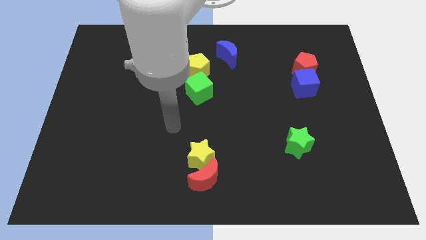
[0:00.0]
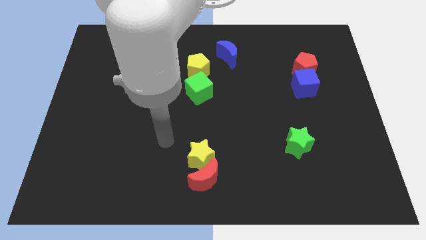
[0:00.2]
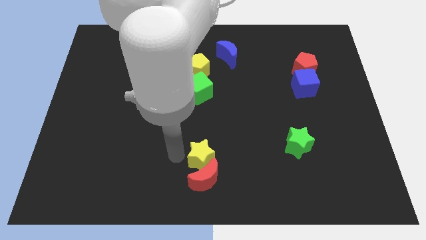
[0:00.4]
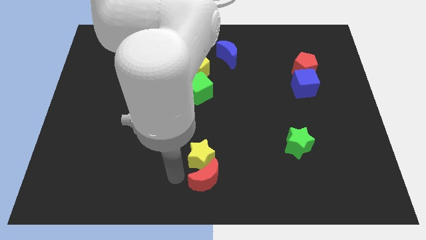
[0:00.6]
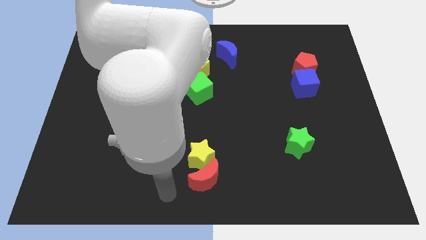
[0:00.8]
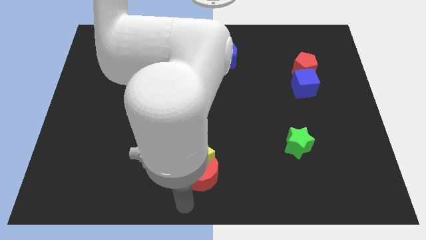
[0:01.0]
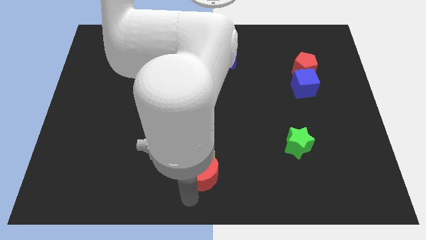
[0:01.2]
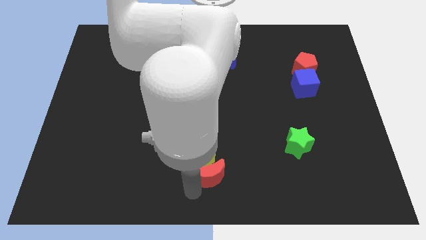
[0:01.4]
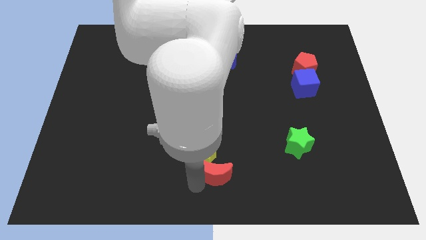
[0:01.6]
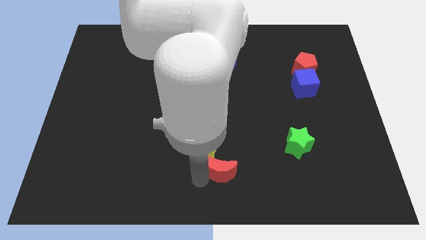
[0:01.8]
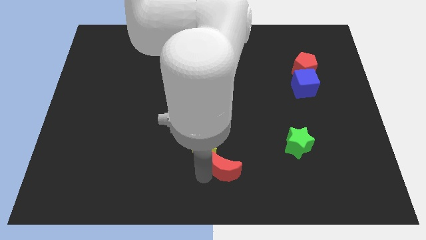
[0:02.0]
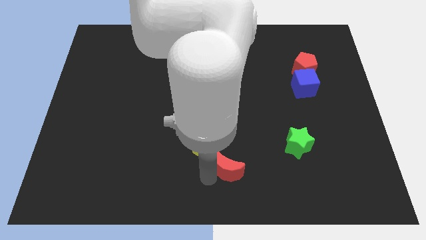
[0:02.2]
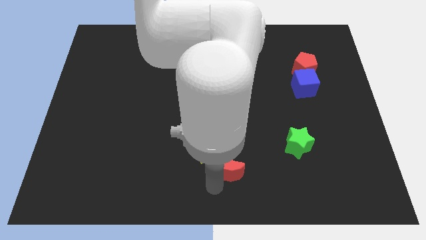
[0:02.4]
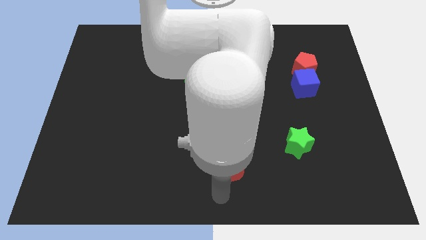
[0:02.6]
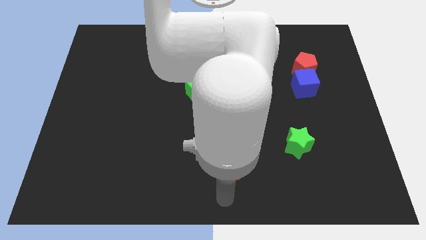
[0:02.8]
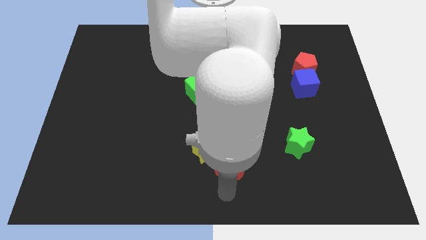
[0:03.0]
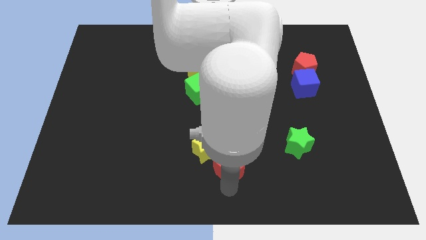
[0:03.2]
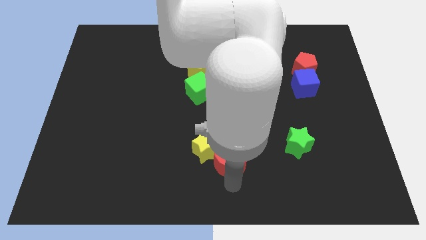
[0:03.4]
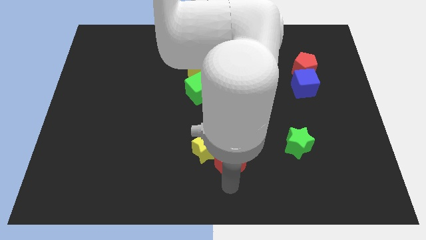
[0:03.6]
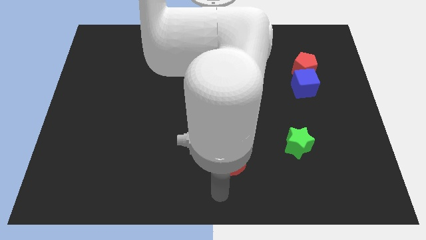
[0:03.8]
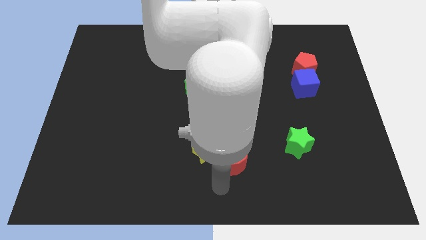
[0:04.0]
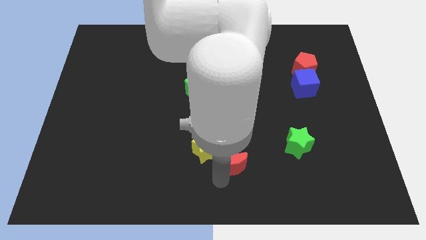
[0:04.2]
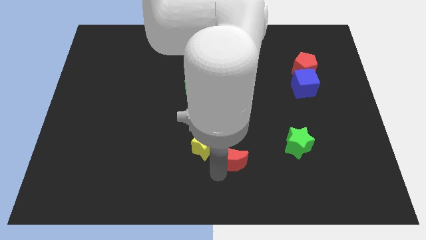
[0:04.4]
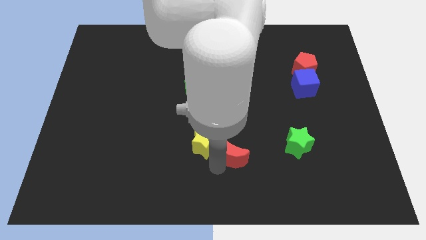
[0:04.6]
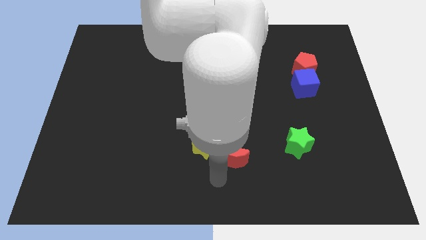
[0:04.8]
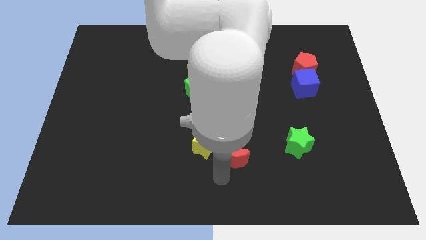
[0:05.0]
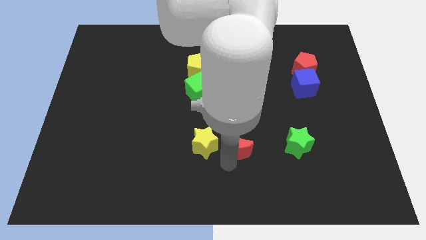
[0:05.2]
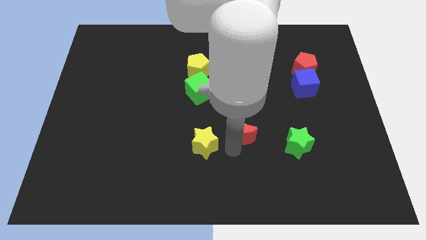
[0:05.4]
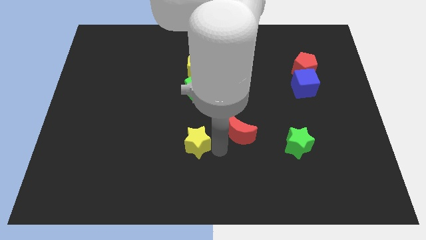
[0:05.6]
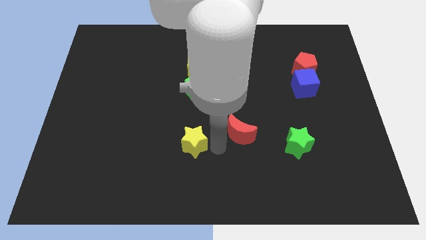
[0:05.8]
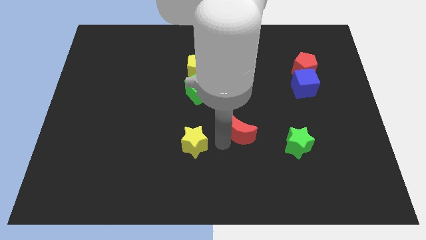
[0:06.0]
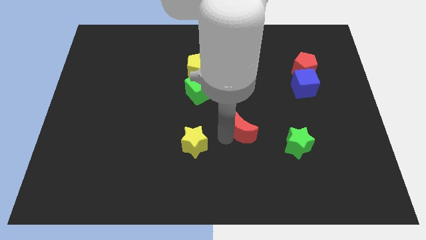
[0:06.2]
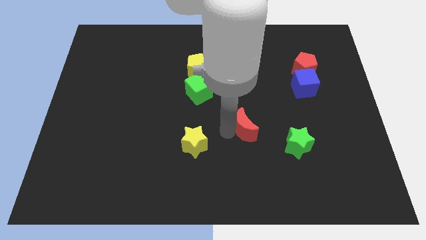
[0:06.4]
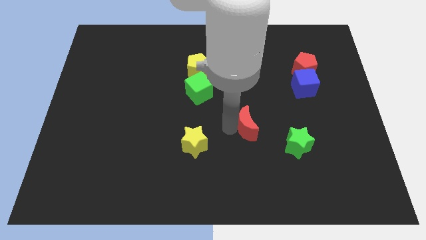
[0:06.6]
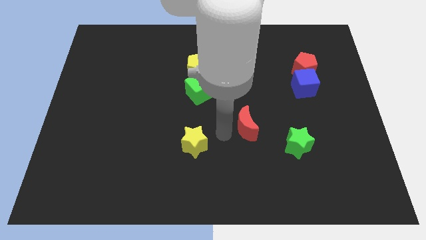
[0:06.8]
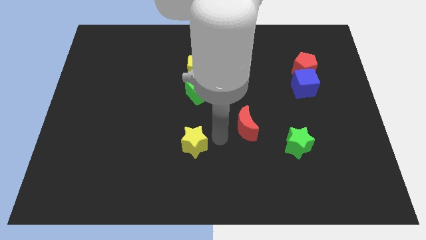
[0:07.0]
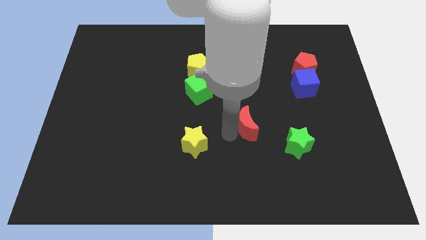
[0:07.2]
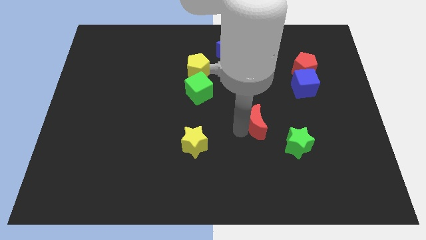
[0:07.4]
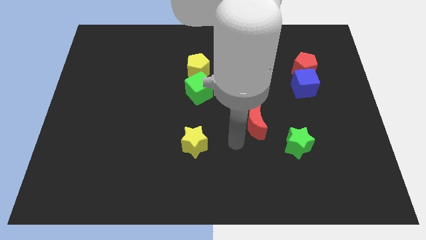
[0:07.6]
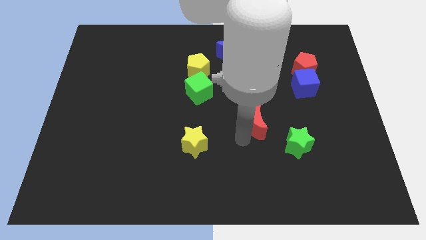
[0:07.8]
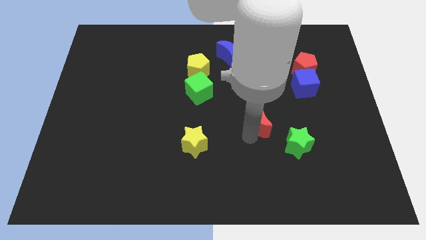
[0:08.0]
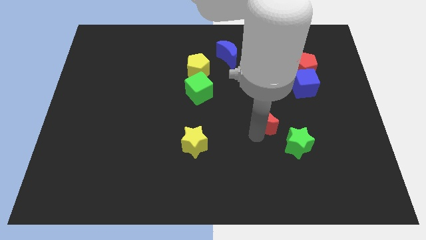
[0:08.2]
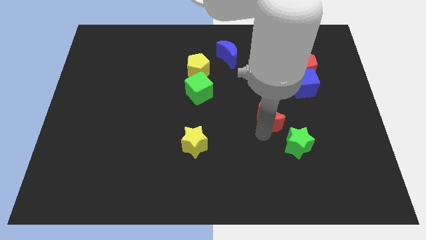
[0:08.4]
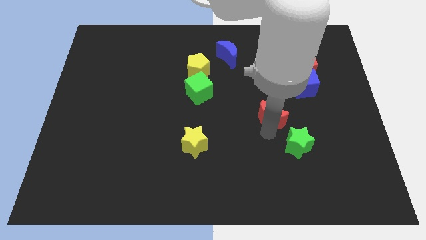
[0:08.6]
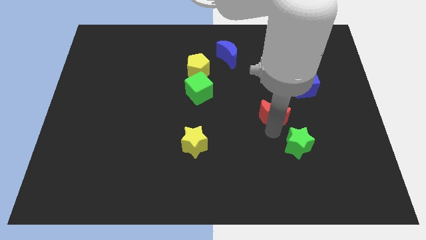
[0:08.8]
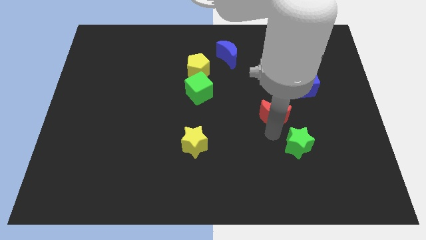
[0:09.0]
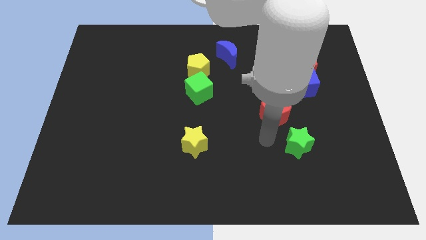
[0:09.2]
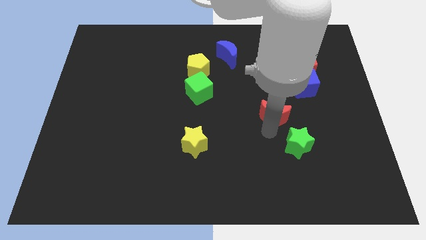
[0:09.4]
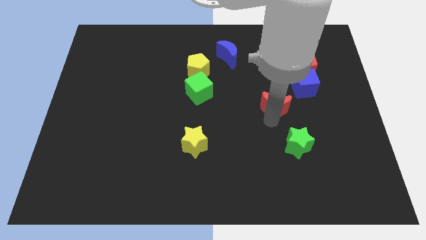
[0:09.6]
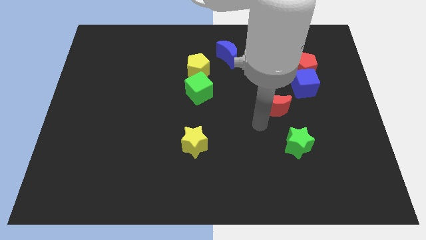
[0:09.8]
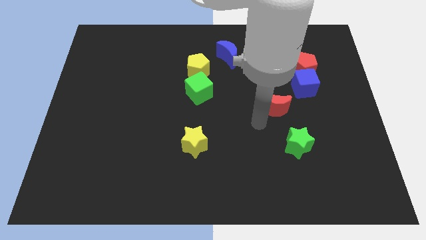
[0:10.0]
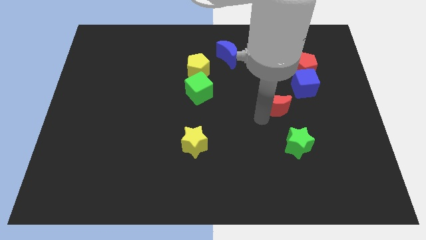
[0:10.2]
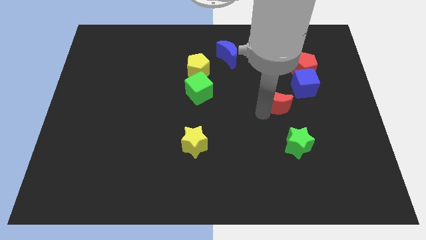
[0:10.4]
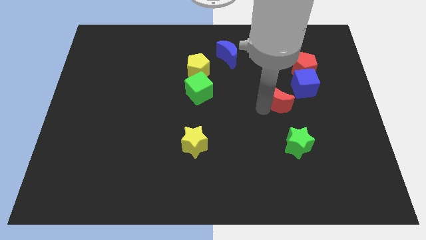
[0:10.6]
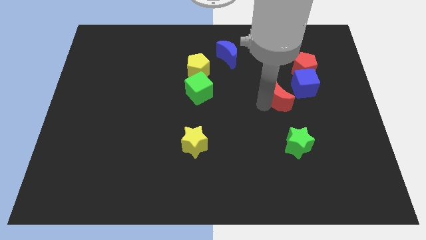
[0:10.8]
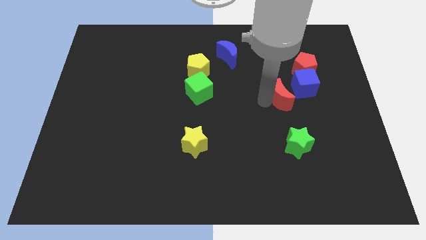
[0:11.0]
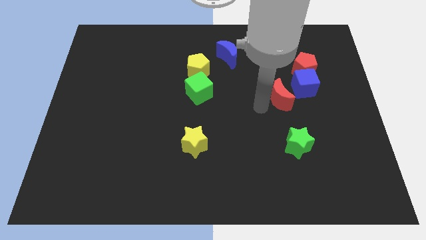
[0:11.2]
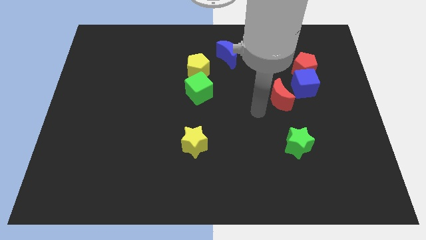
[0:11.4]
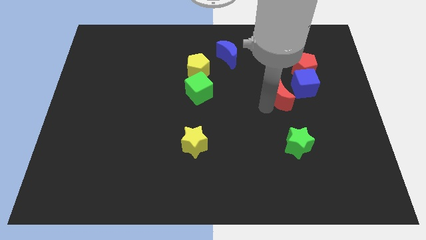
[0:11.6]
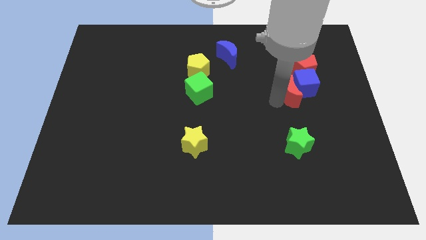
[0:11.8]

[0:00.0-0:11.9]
slide the red moon to the blue cube

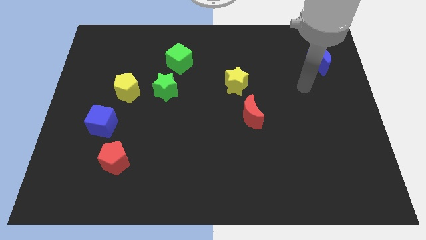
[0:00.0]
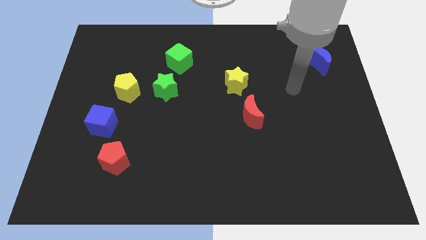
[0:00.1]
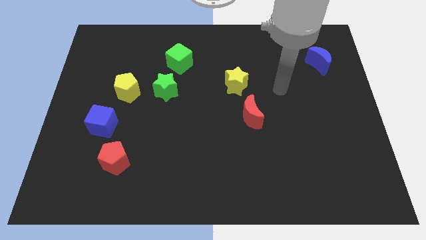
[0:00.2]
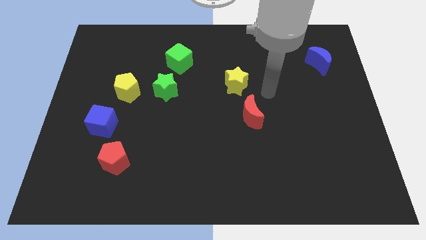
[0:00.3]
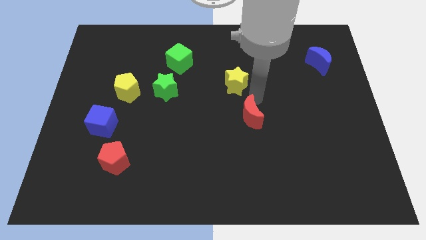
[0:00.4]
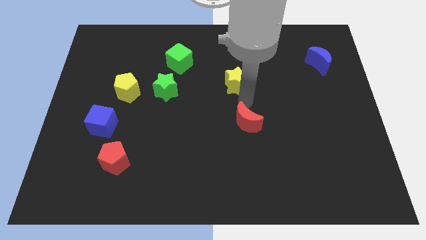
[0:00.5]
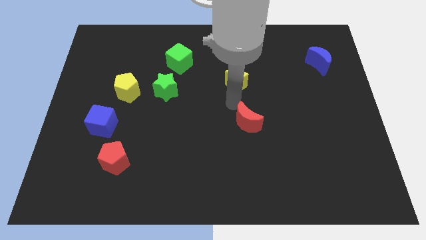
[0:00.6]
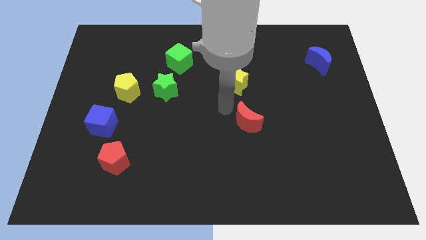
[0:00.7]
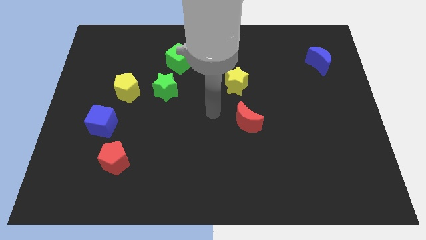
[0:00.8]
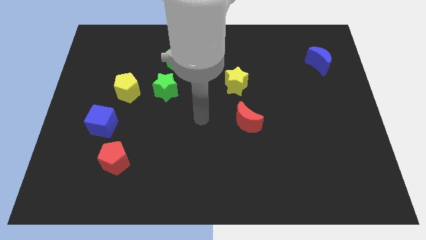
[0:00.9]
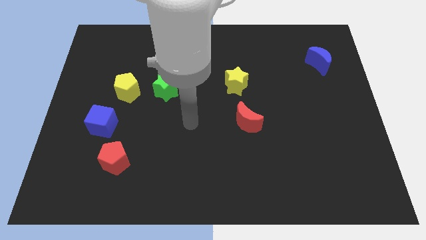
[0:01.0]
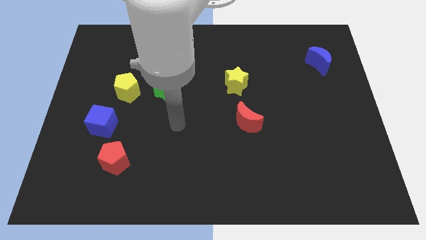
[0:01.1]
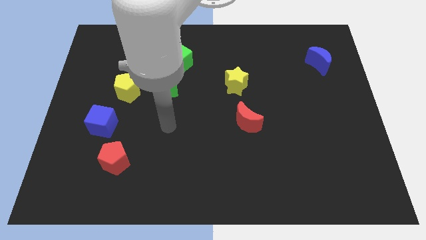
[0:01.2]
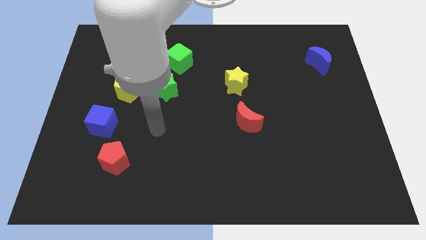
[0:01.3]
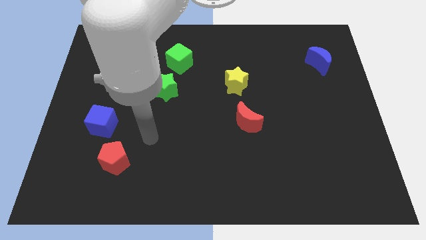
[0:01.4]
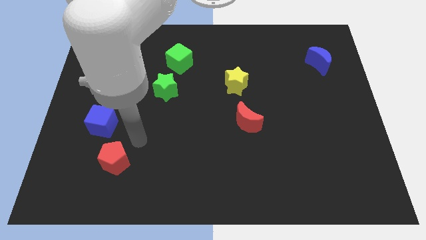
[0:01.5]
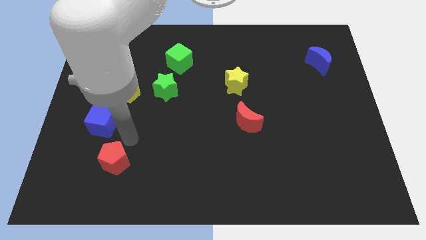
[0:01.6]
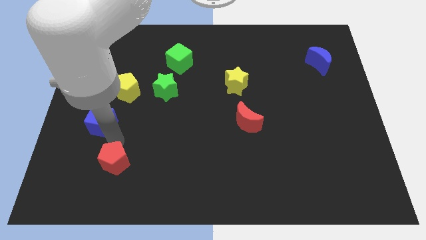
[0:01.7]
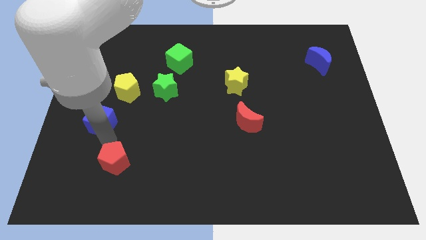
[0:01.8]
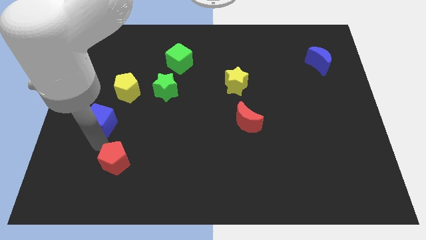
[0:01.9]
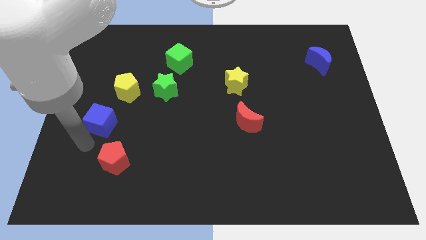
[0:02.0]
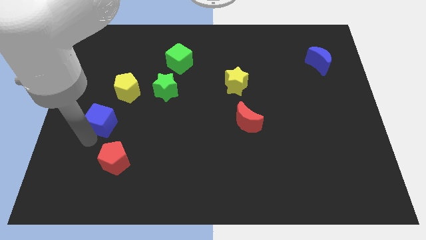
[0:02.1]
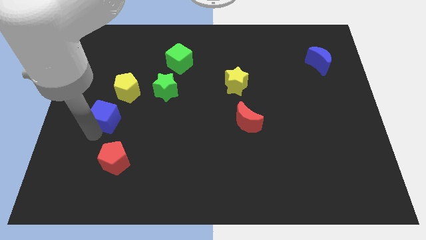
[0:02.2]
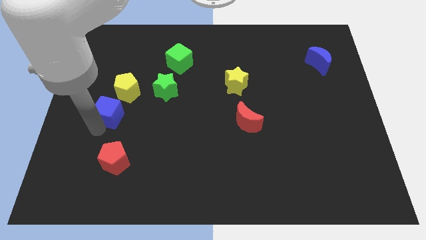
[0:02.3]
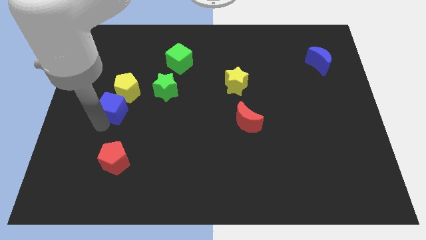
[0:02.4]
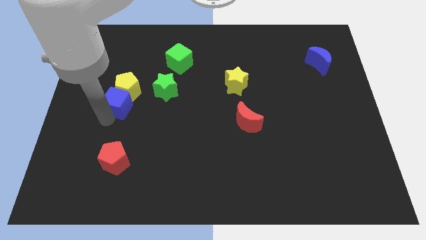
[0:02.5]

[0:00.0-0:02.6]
put the blue cube next to the yellow pentagon
